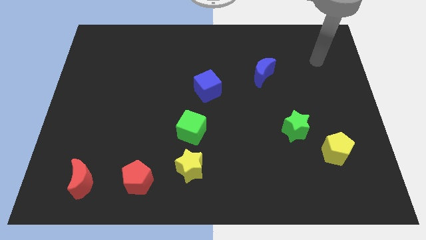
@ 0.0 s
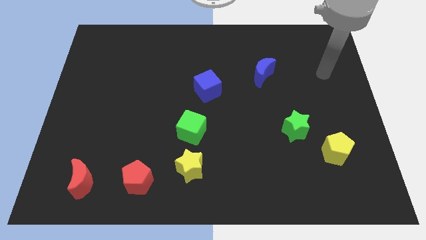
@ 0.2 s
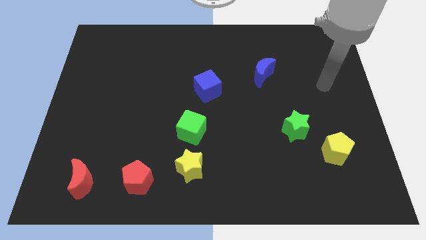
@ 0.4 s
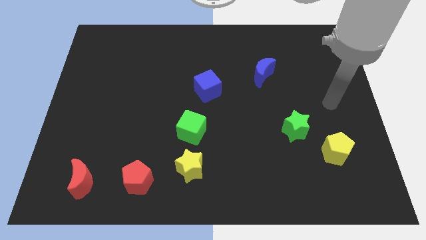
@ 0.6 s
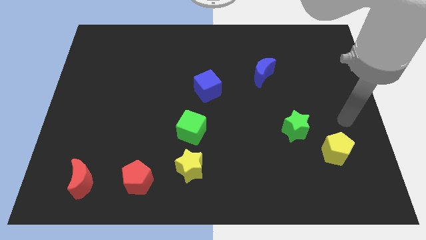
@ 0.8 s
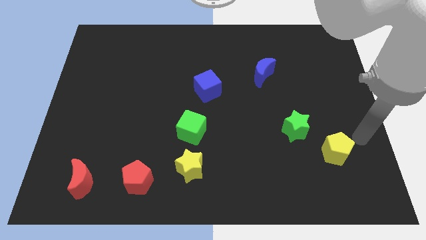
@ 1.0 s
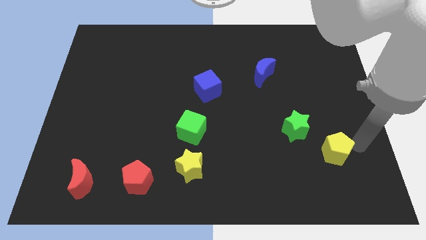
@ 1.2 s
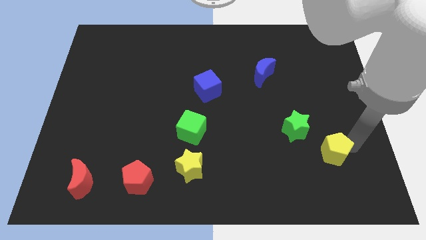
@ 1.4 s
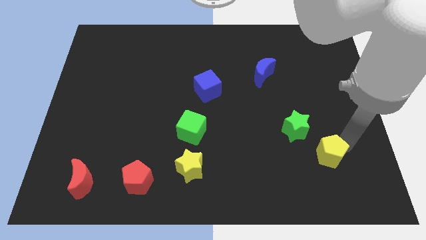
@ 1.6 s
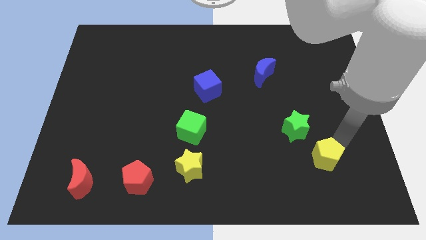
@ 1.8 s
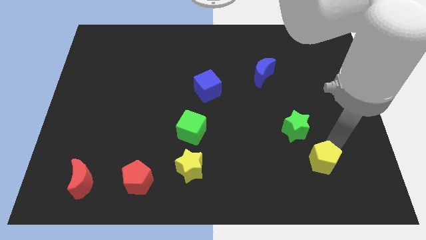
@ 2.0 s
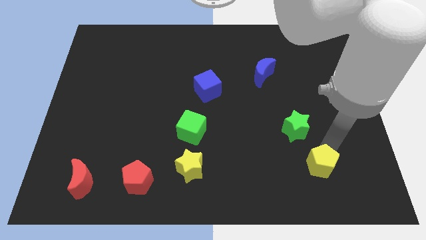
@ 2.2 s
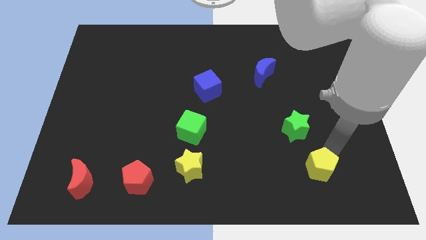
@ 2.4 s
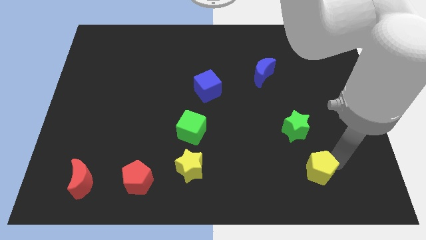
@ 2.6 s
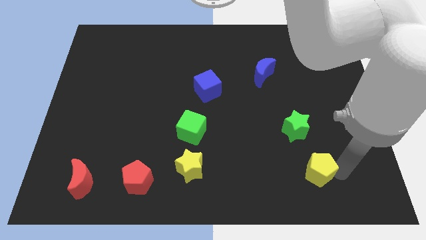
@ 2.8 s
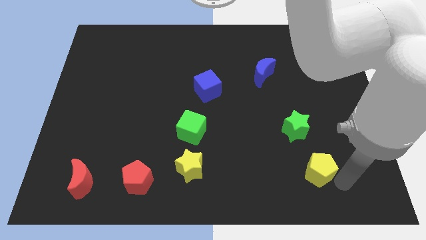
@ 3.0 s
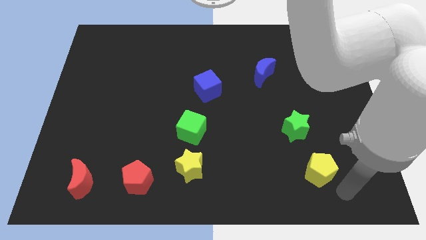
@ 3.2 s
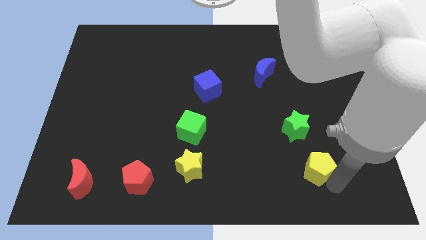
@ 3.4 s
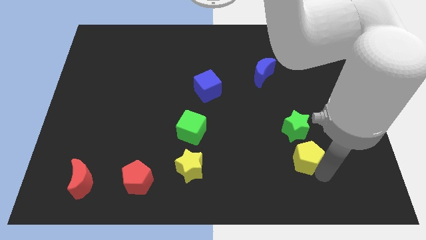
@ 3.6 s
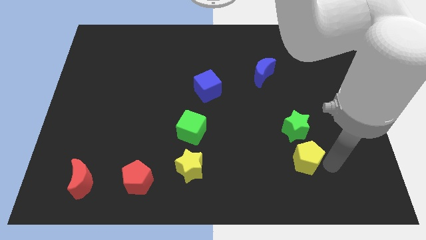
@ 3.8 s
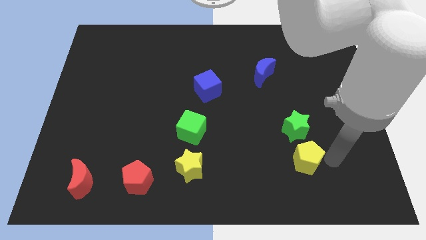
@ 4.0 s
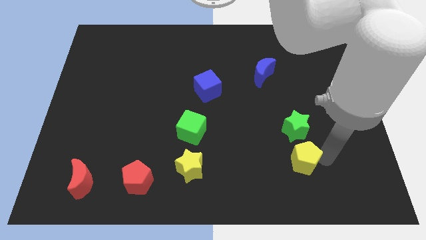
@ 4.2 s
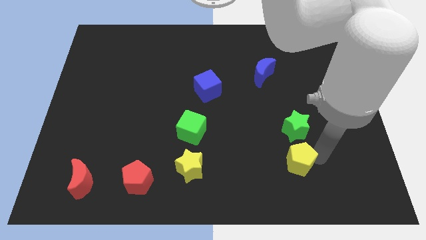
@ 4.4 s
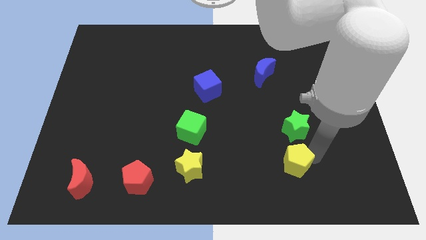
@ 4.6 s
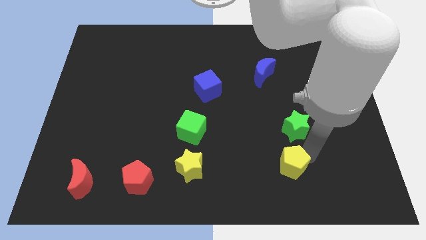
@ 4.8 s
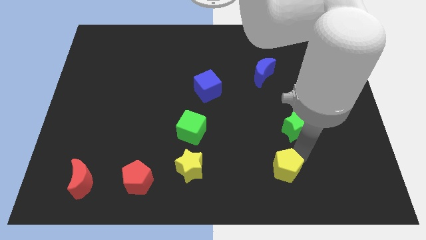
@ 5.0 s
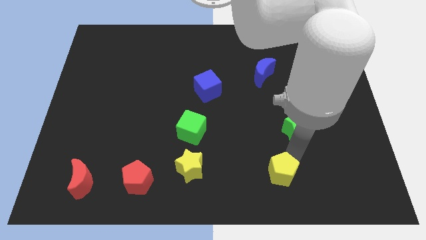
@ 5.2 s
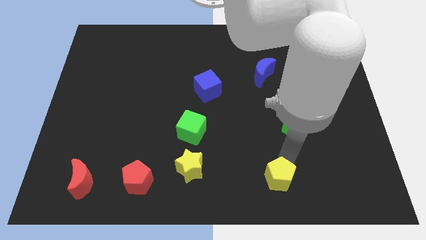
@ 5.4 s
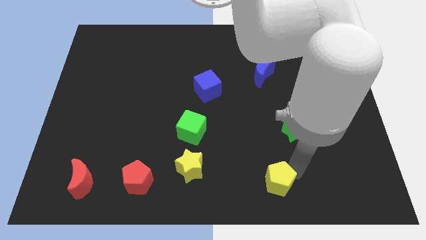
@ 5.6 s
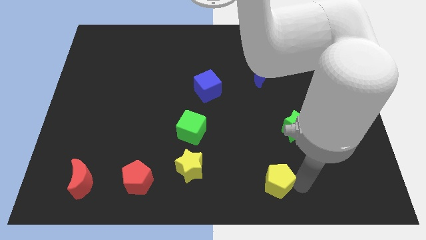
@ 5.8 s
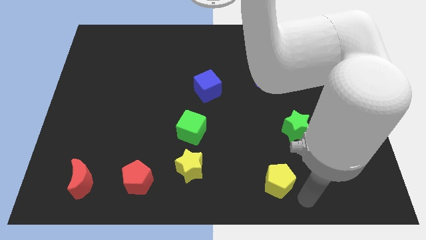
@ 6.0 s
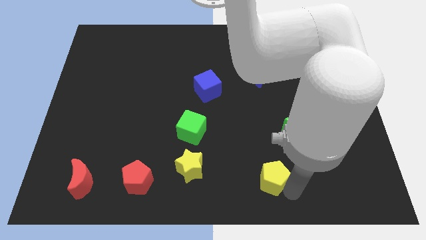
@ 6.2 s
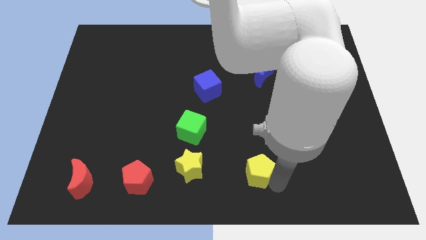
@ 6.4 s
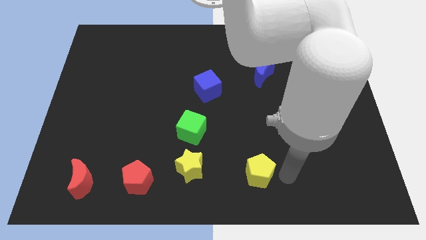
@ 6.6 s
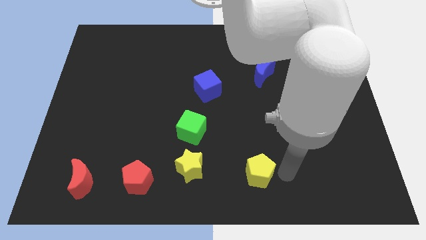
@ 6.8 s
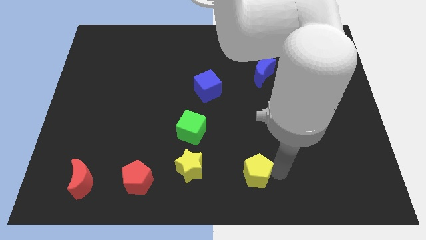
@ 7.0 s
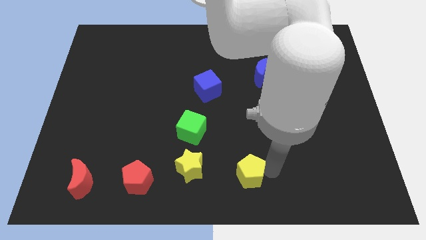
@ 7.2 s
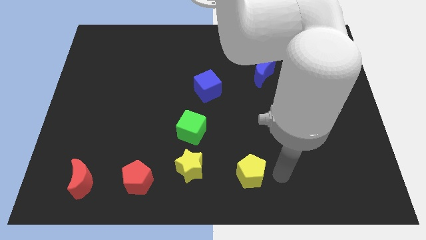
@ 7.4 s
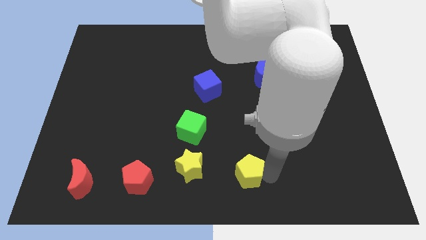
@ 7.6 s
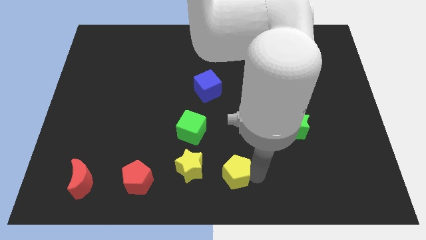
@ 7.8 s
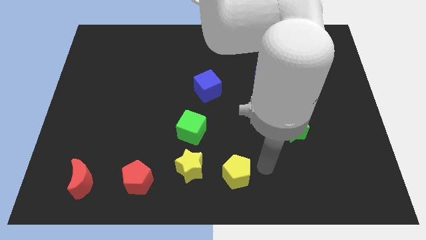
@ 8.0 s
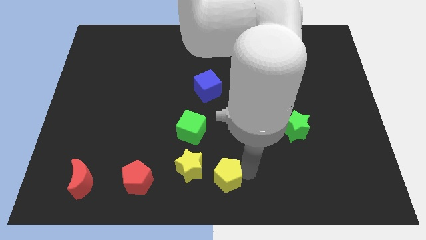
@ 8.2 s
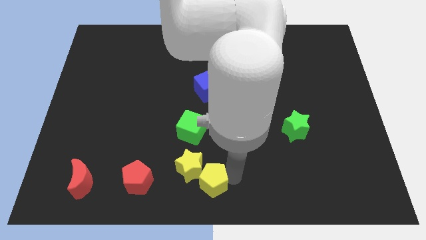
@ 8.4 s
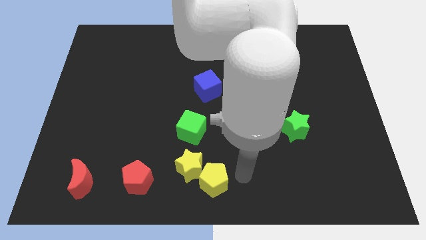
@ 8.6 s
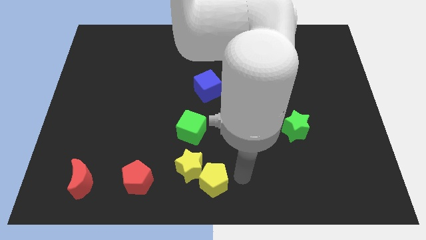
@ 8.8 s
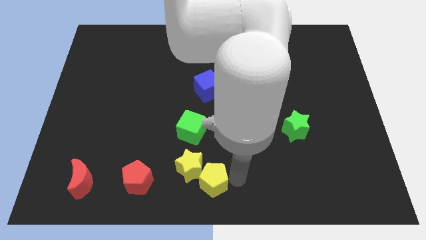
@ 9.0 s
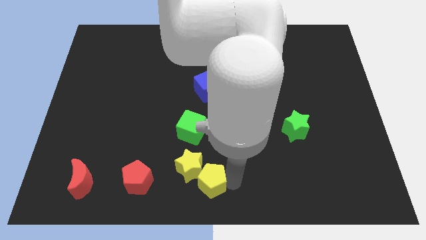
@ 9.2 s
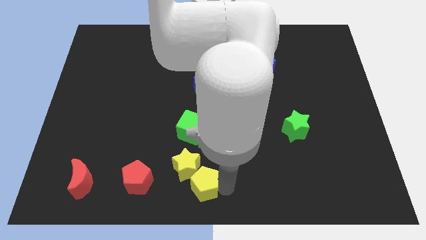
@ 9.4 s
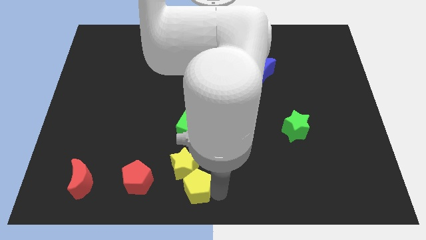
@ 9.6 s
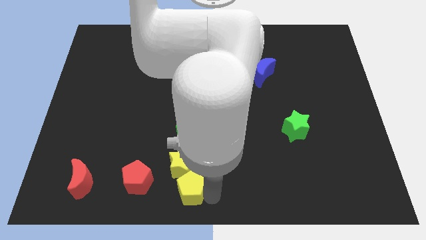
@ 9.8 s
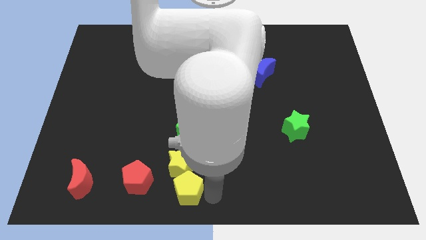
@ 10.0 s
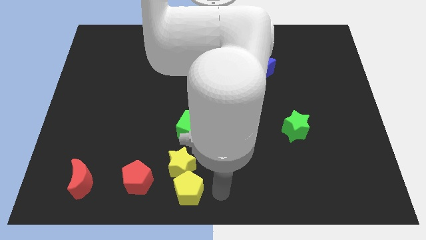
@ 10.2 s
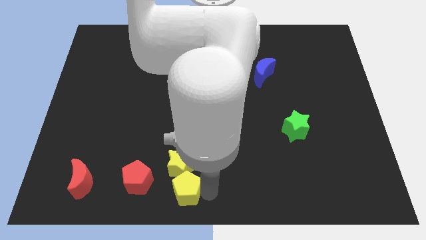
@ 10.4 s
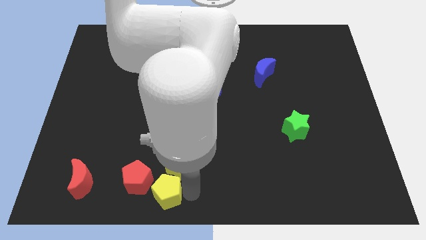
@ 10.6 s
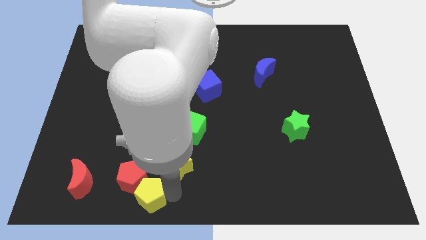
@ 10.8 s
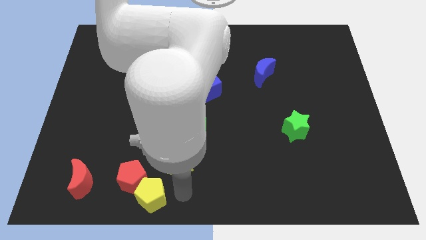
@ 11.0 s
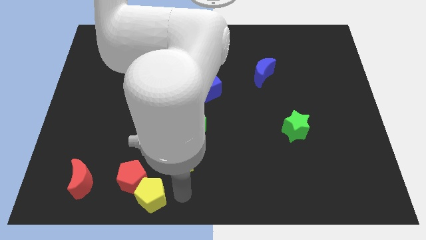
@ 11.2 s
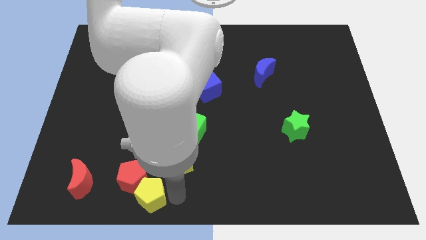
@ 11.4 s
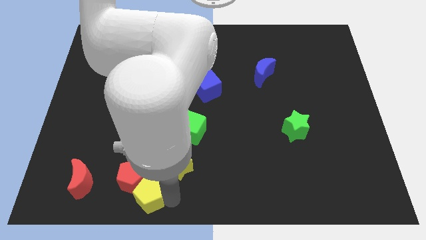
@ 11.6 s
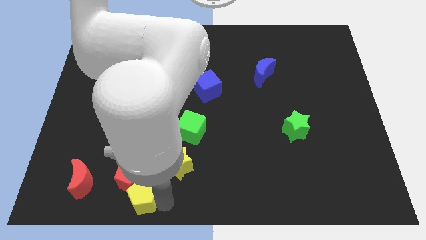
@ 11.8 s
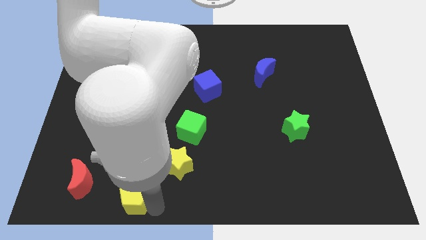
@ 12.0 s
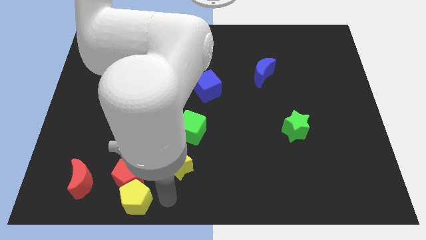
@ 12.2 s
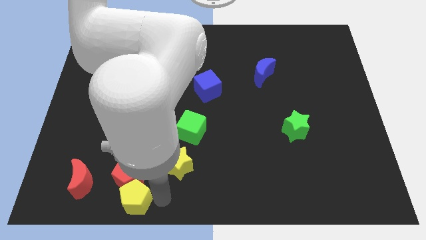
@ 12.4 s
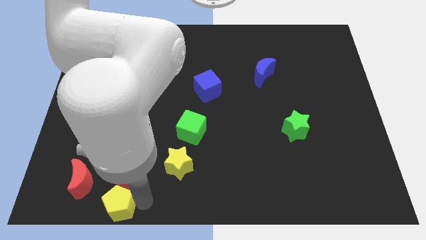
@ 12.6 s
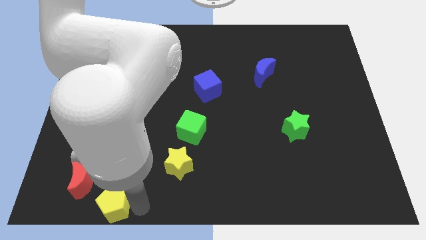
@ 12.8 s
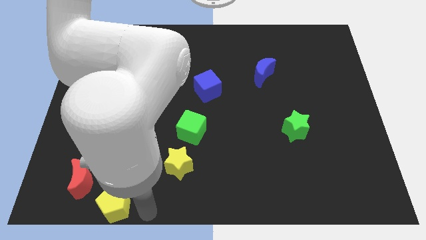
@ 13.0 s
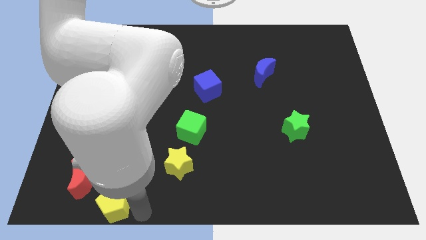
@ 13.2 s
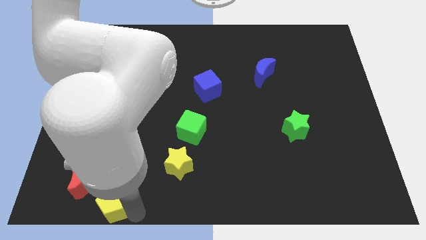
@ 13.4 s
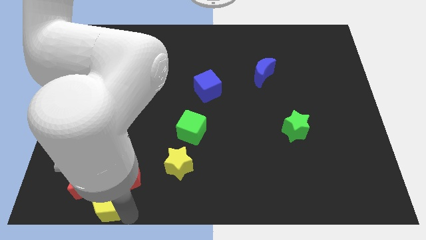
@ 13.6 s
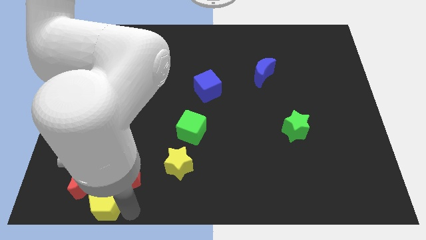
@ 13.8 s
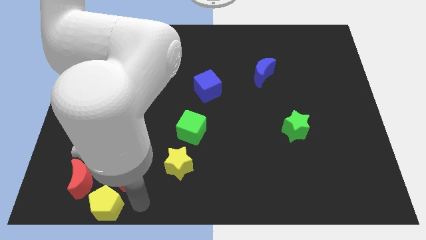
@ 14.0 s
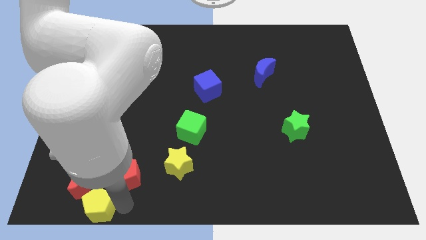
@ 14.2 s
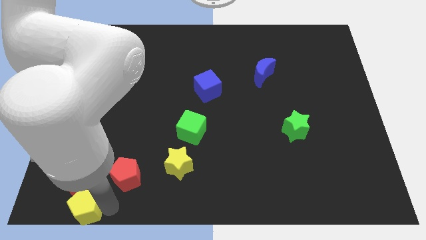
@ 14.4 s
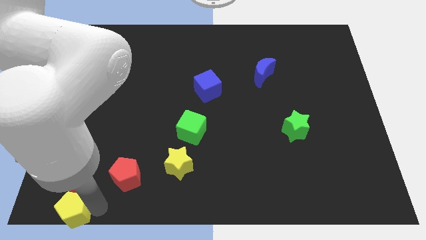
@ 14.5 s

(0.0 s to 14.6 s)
push the yellow pentagon to the bottom left corner
